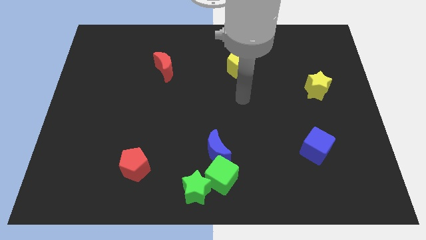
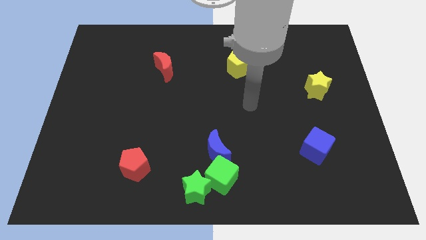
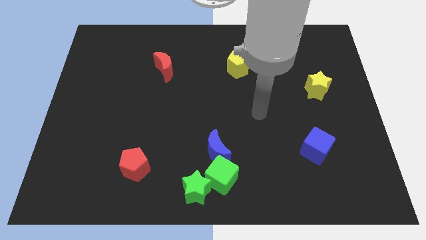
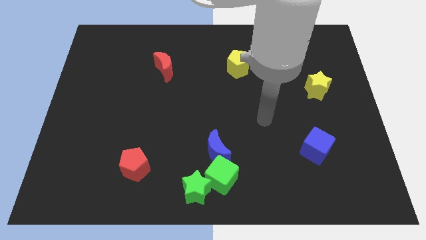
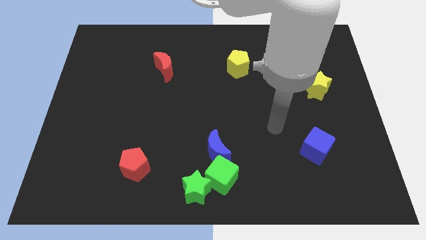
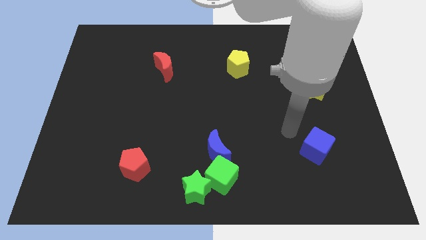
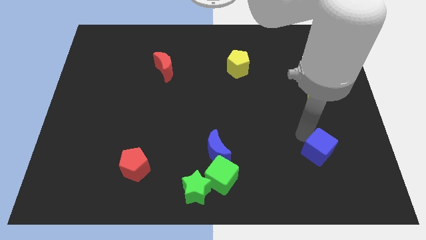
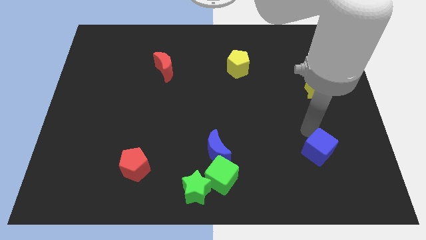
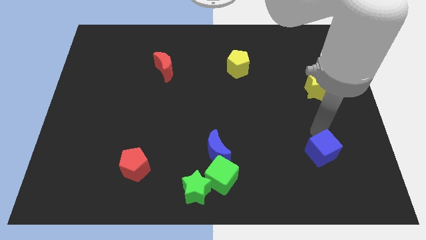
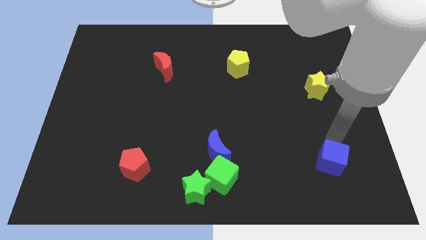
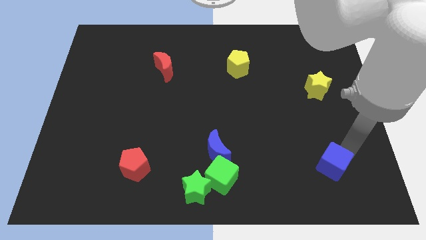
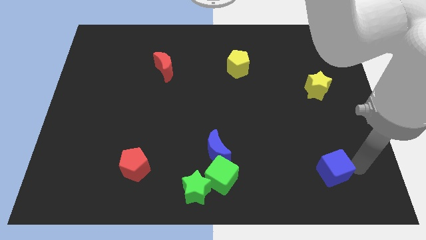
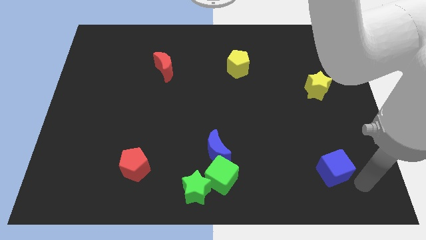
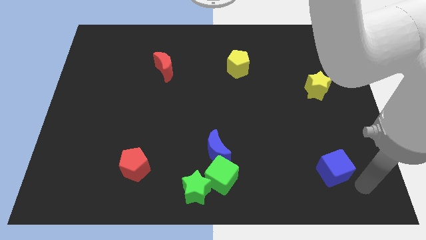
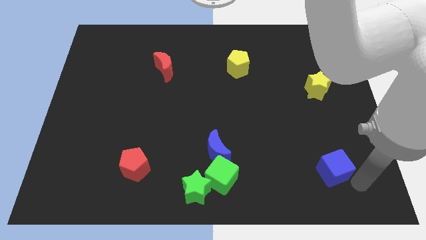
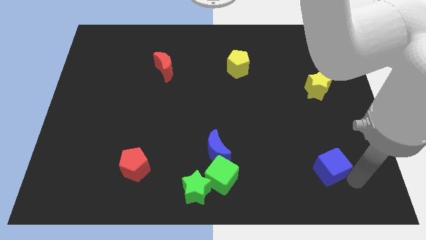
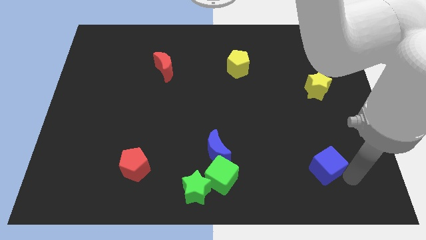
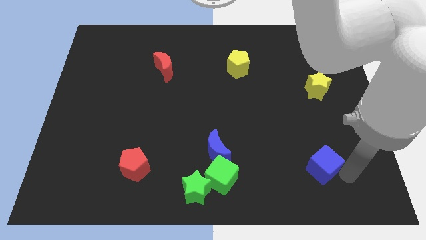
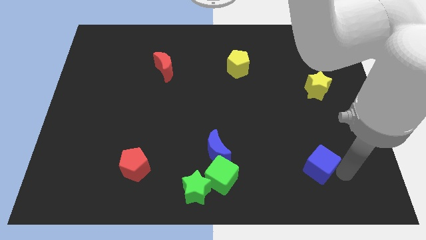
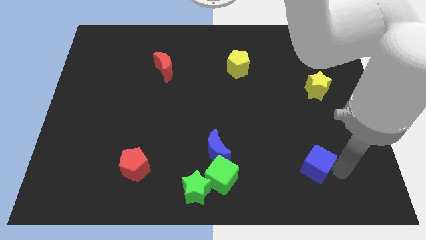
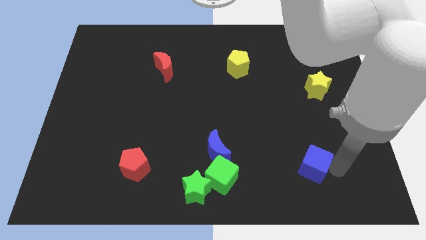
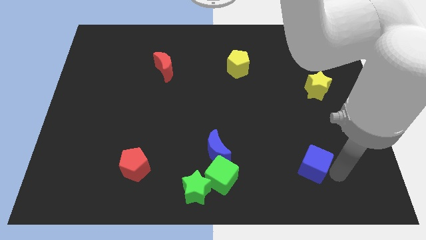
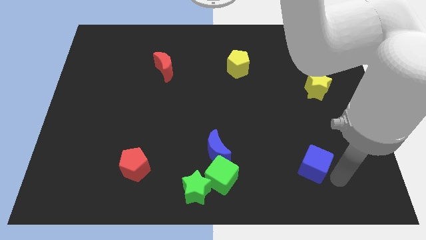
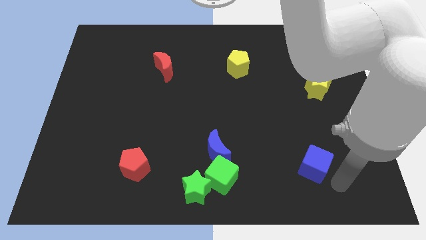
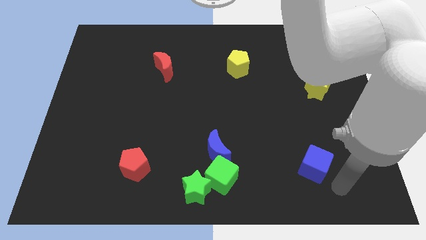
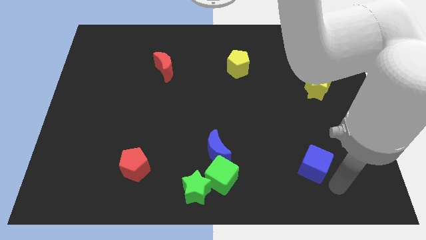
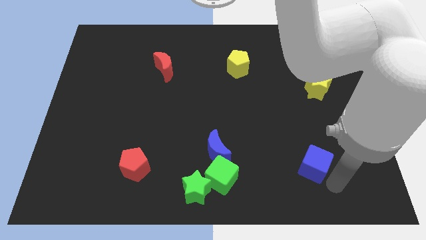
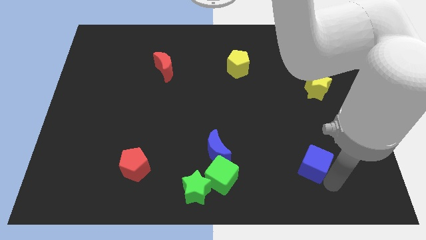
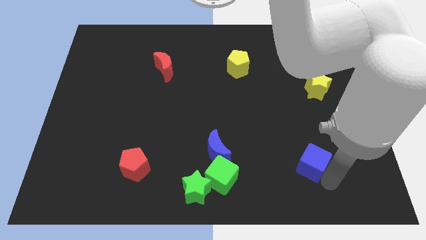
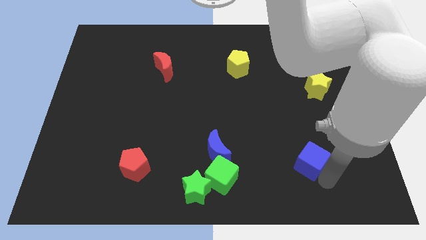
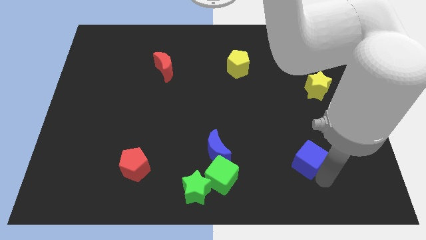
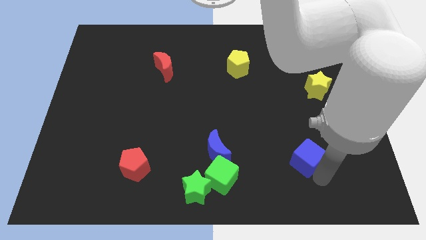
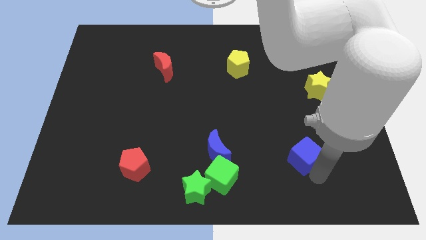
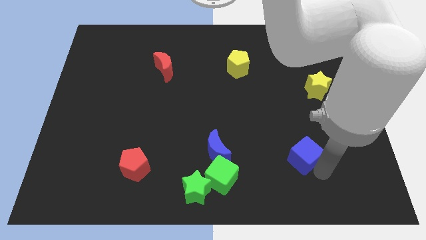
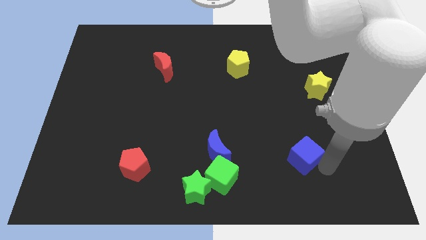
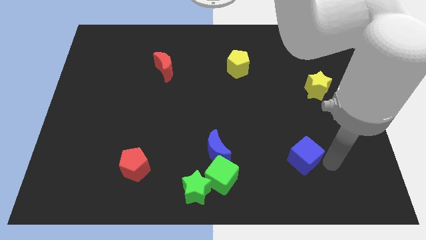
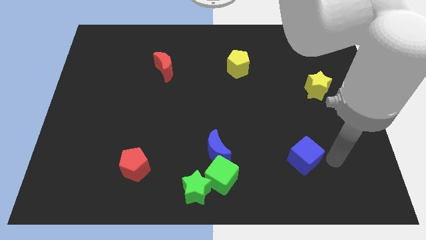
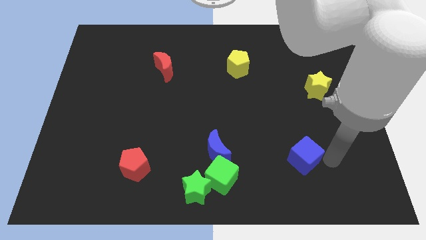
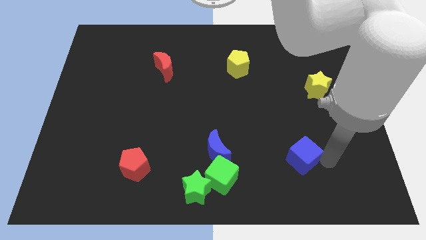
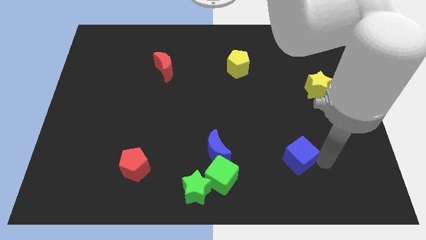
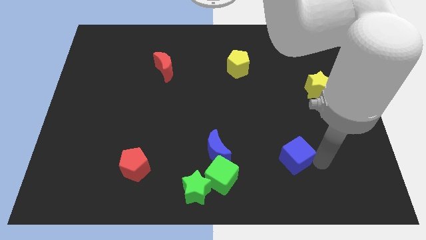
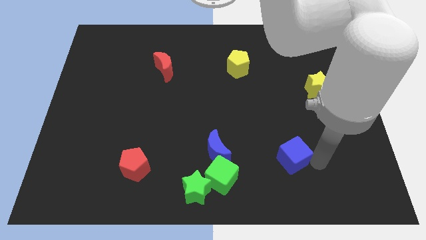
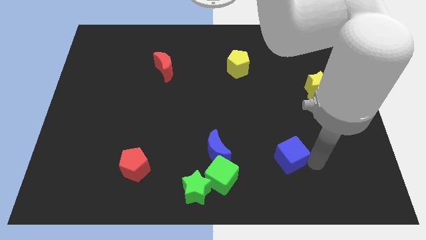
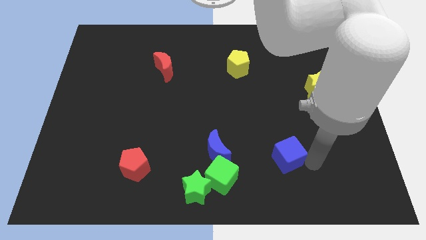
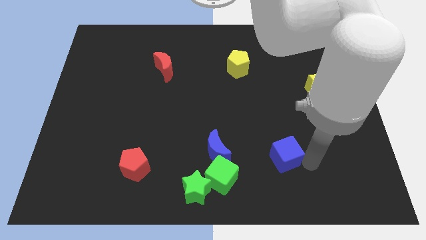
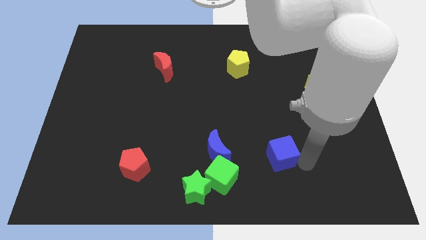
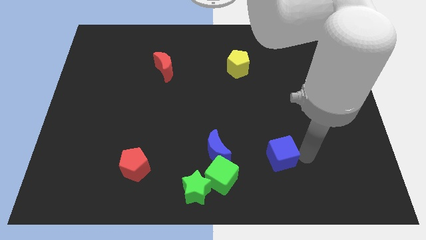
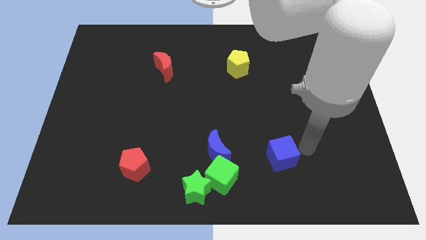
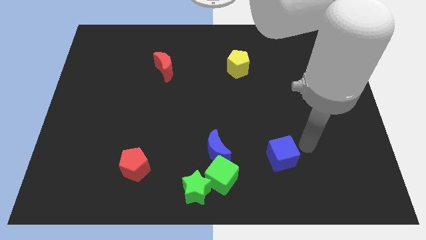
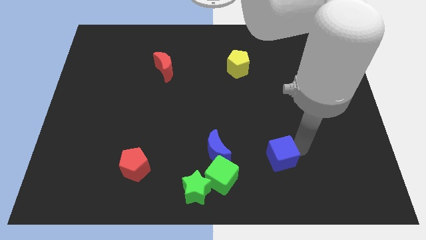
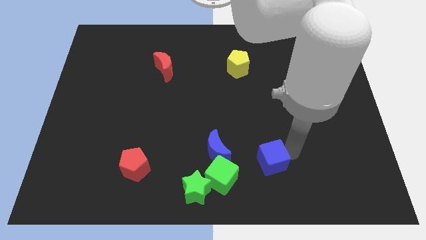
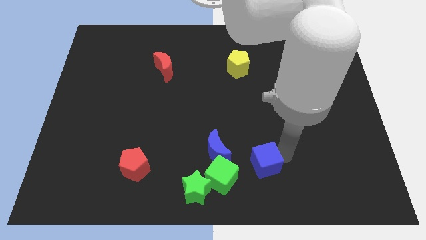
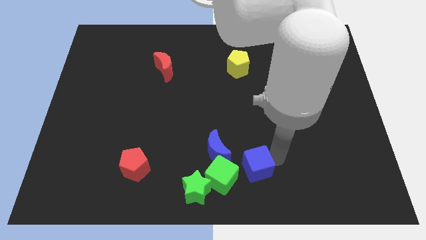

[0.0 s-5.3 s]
push the blue cube diagonally down and to the right of the blue moon

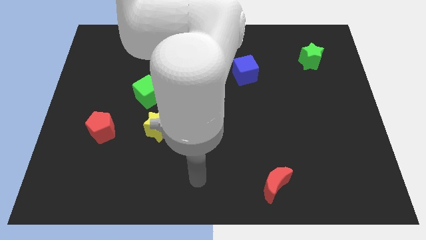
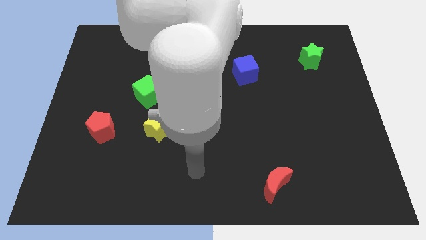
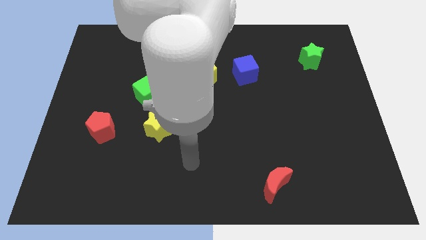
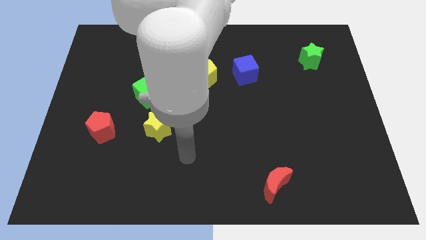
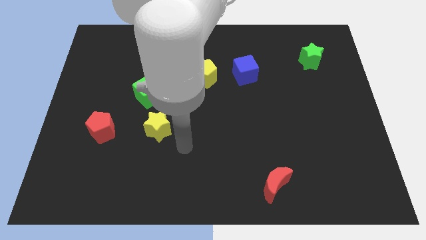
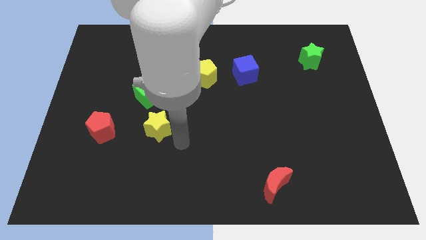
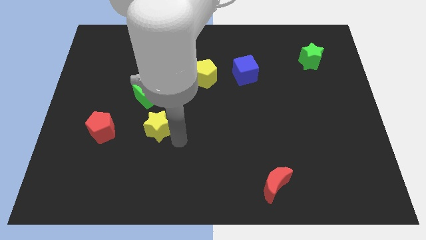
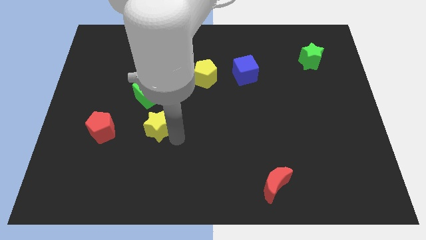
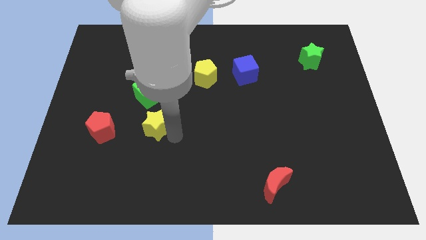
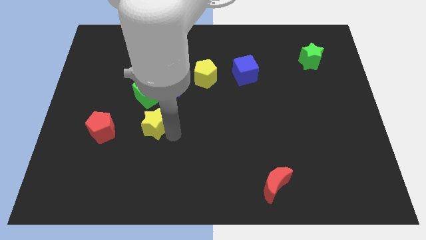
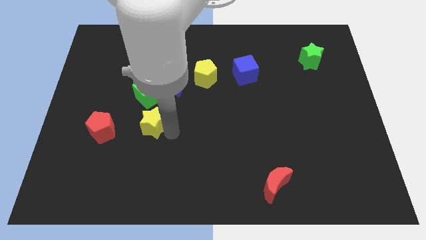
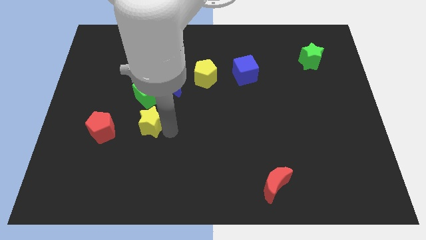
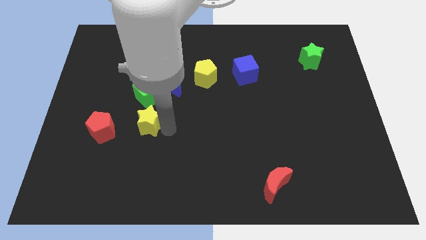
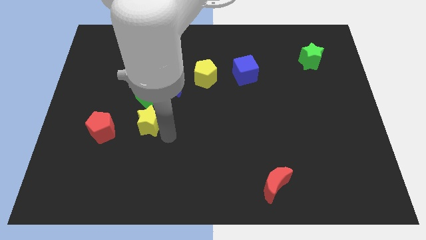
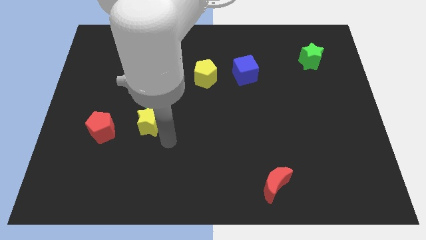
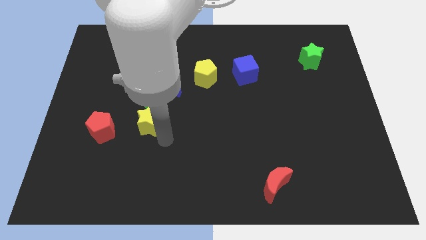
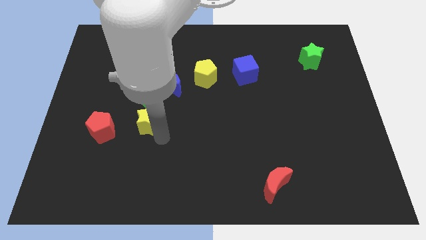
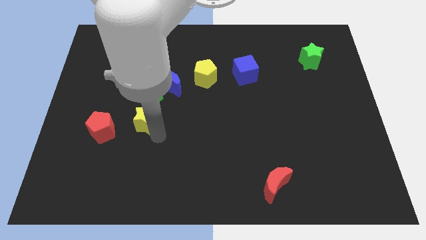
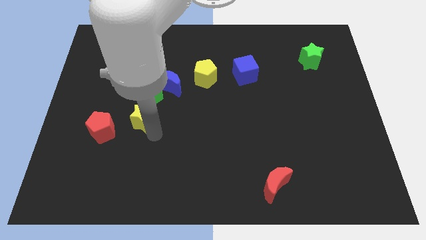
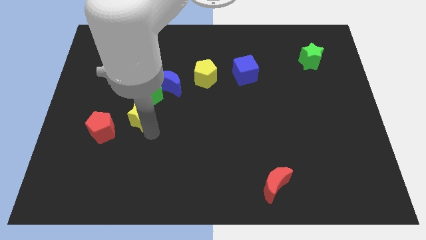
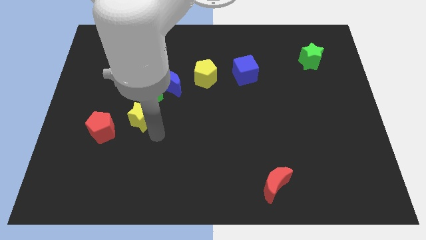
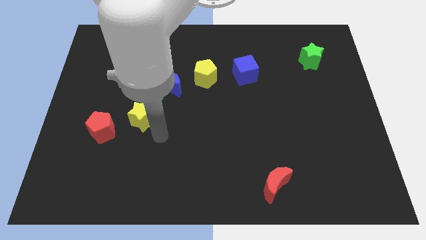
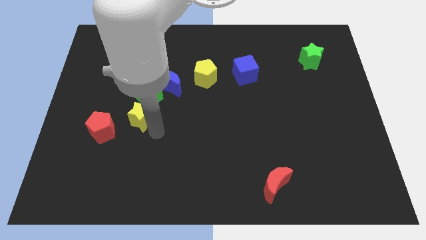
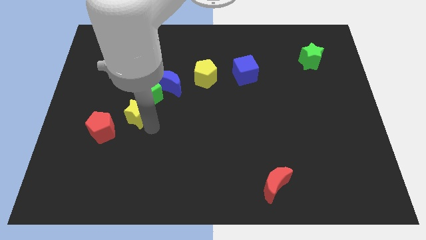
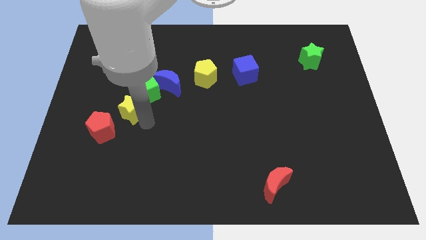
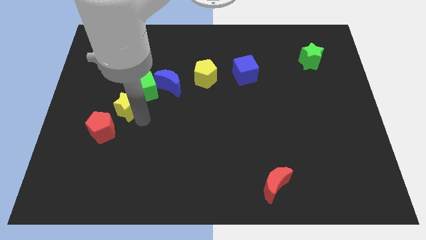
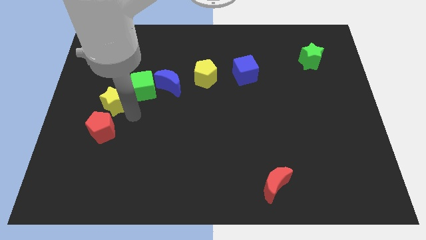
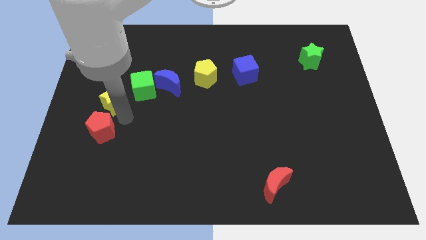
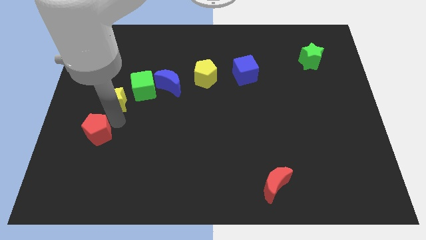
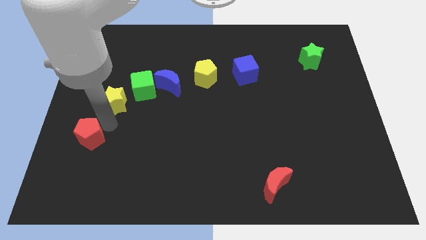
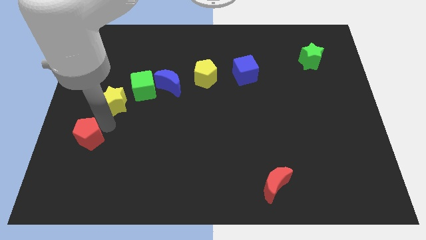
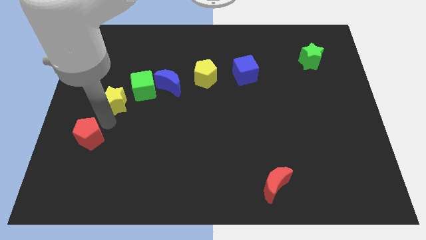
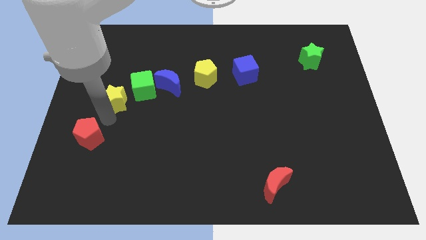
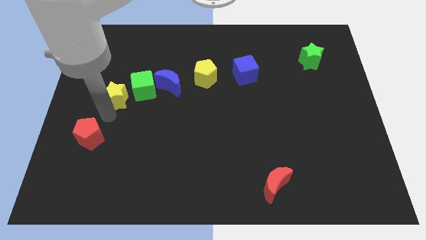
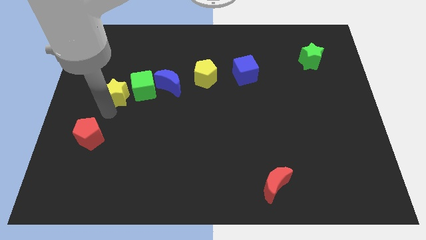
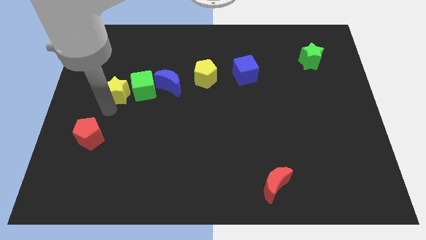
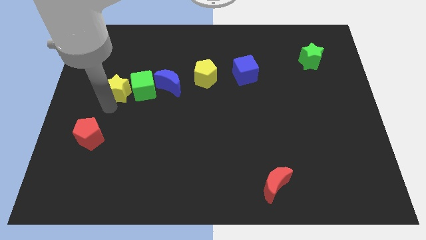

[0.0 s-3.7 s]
put the yellow star to the top left side of the green cube
